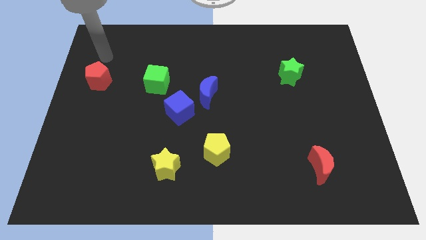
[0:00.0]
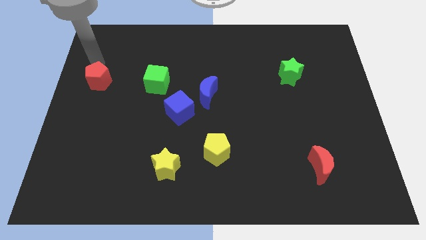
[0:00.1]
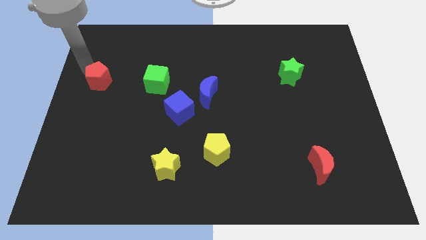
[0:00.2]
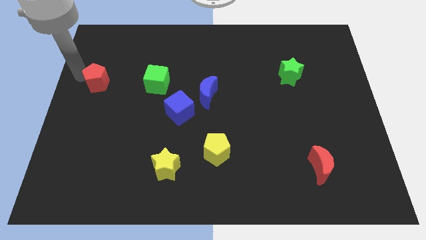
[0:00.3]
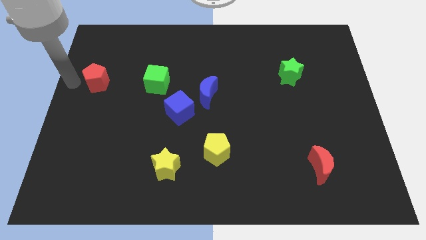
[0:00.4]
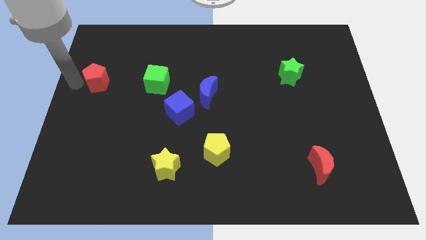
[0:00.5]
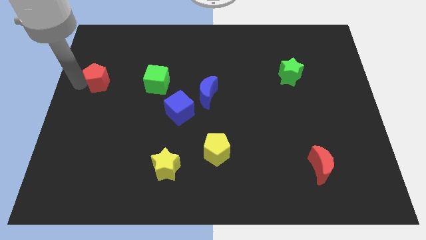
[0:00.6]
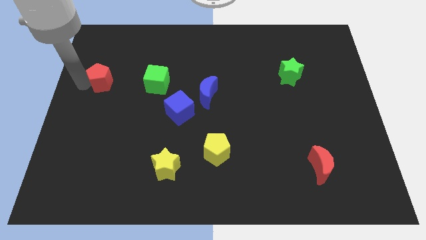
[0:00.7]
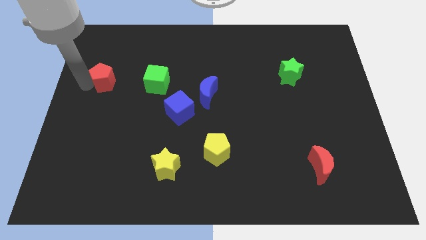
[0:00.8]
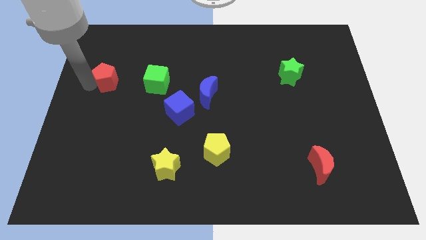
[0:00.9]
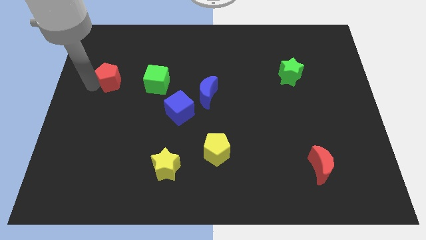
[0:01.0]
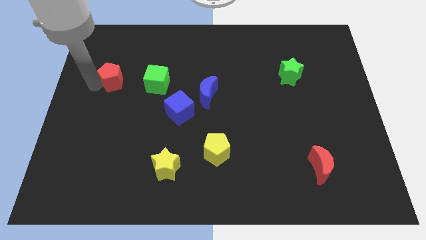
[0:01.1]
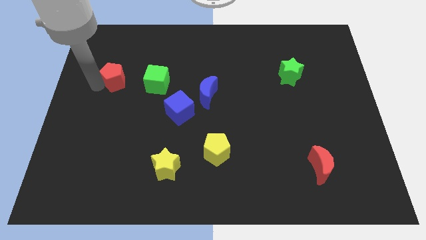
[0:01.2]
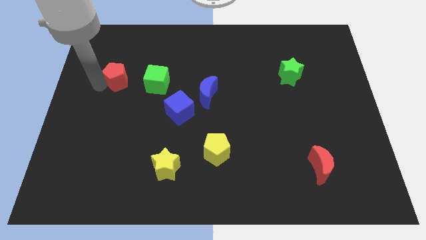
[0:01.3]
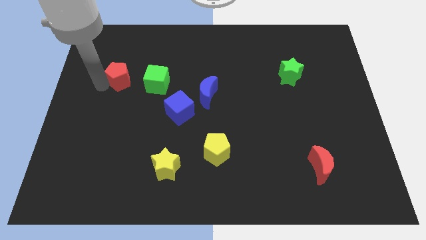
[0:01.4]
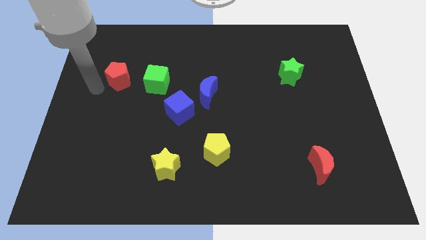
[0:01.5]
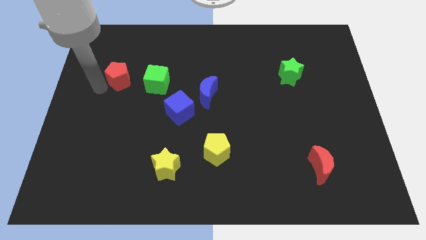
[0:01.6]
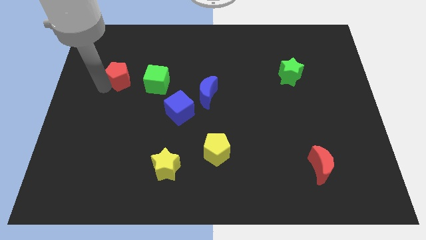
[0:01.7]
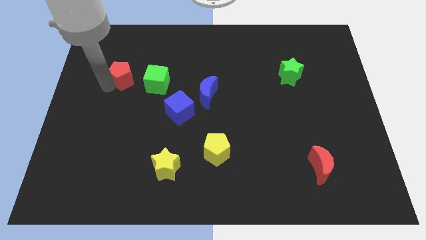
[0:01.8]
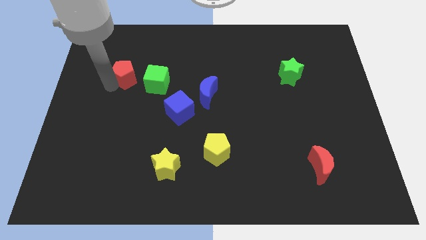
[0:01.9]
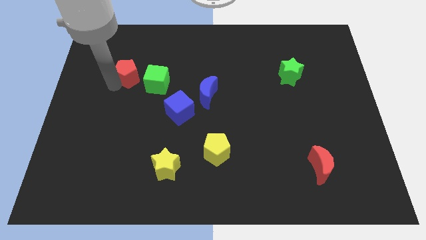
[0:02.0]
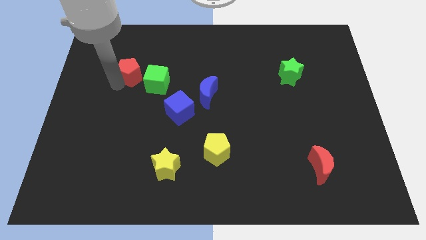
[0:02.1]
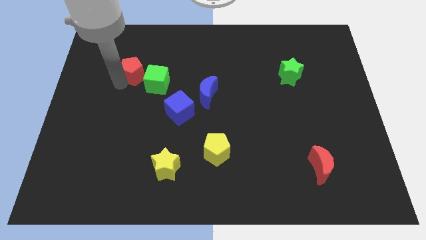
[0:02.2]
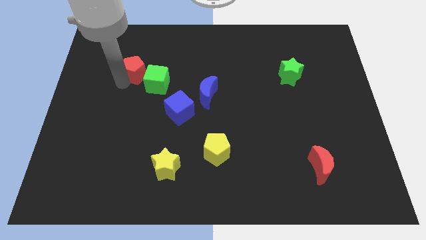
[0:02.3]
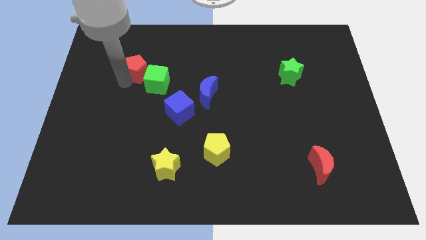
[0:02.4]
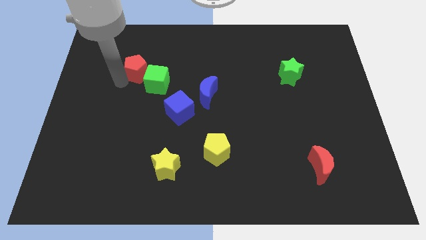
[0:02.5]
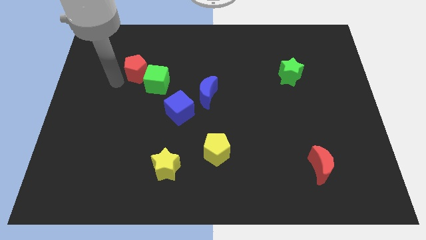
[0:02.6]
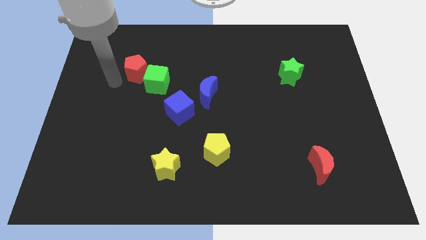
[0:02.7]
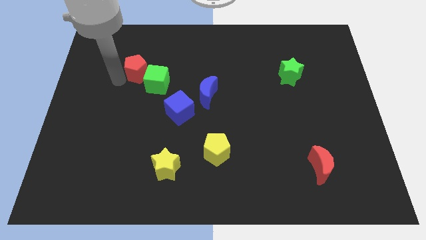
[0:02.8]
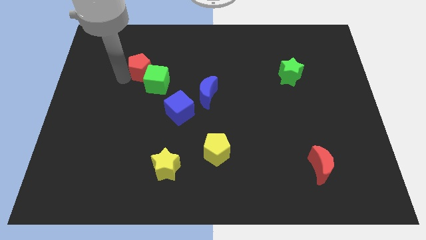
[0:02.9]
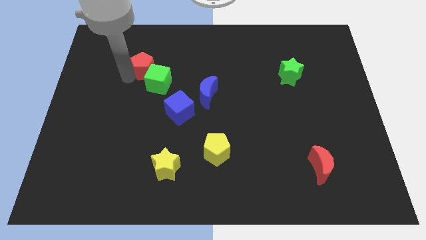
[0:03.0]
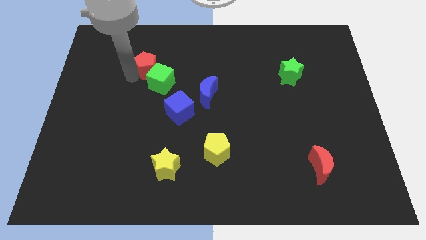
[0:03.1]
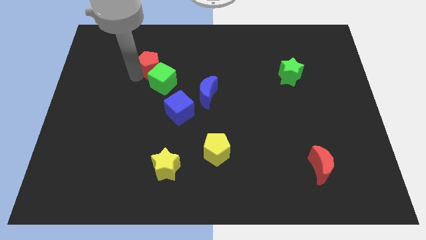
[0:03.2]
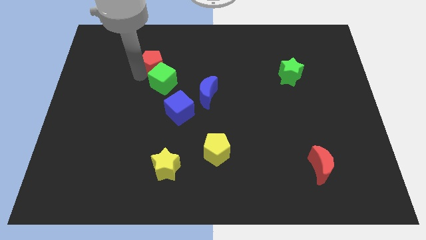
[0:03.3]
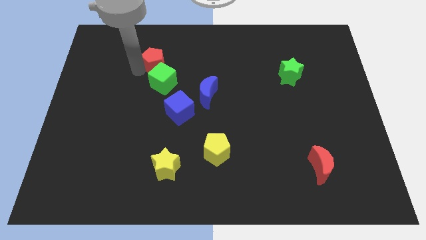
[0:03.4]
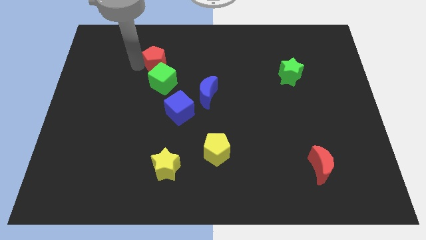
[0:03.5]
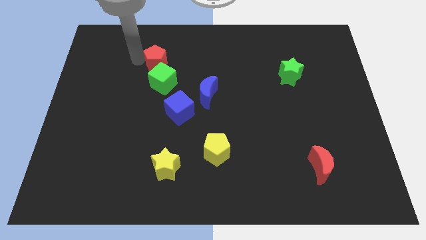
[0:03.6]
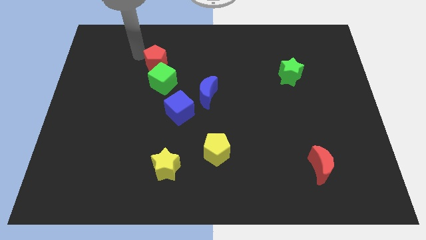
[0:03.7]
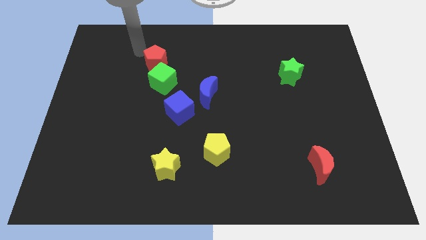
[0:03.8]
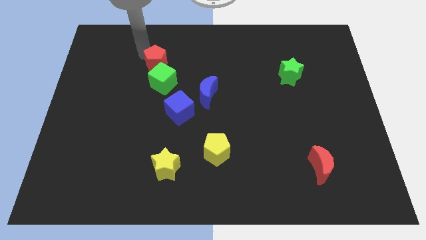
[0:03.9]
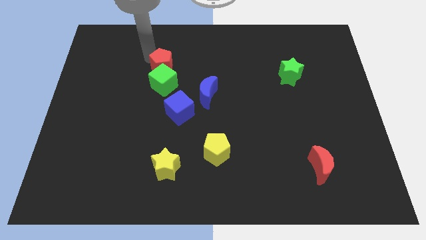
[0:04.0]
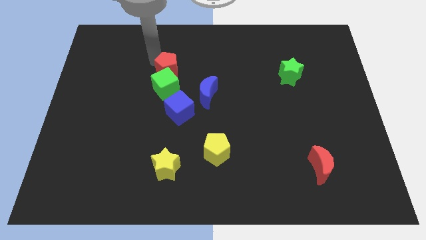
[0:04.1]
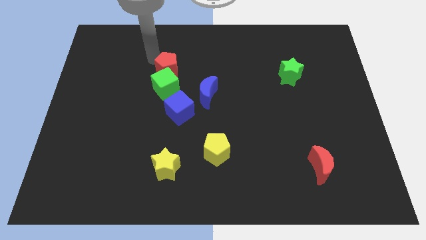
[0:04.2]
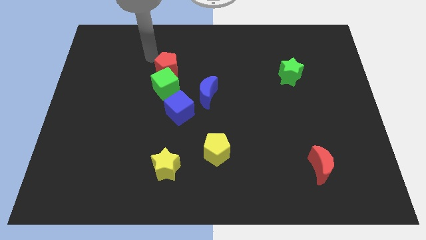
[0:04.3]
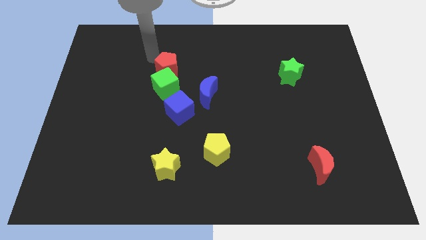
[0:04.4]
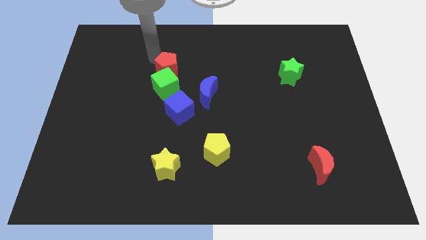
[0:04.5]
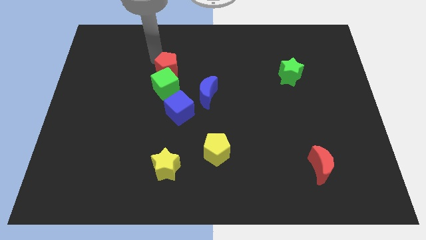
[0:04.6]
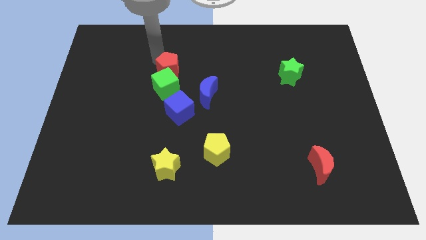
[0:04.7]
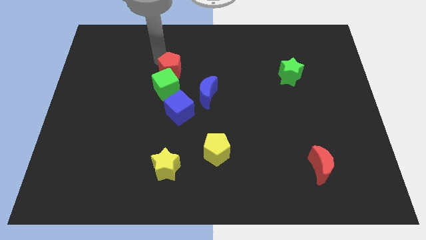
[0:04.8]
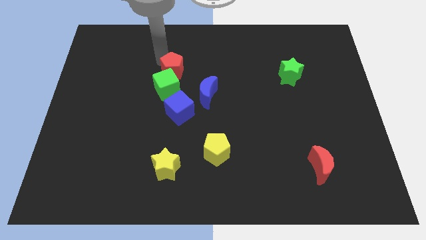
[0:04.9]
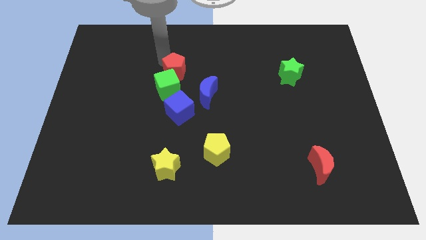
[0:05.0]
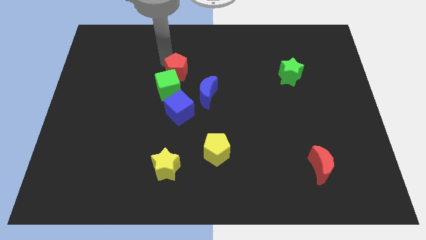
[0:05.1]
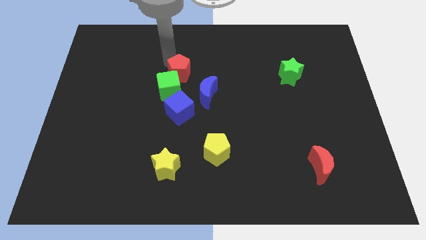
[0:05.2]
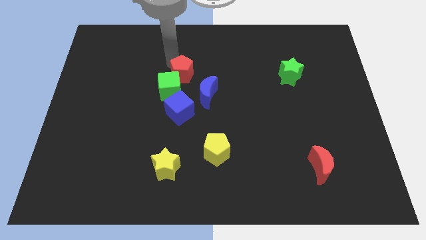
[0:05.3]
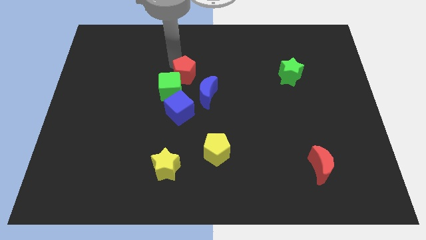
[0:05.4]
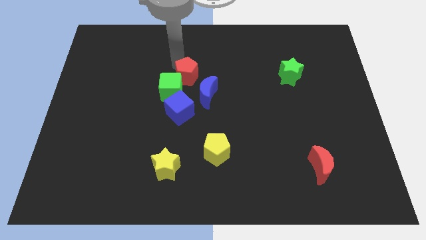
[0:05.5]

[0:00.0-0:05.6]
put the red pentagon to the top side of the blue moon
